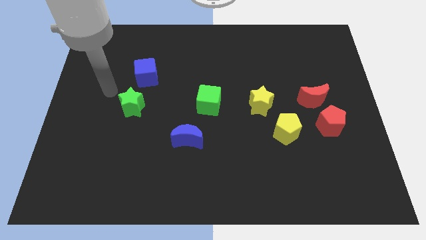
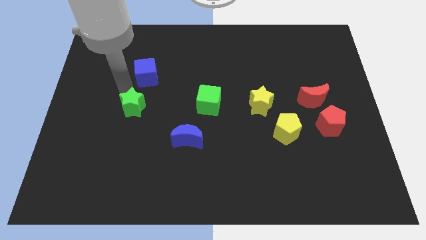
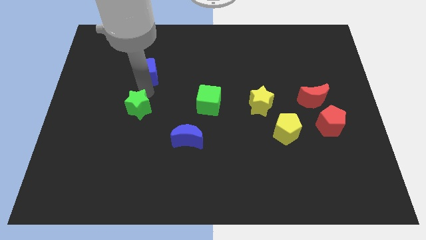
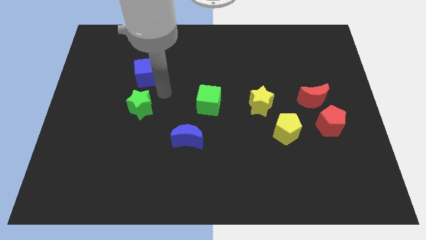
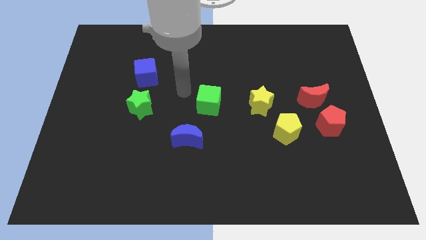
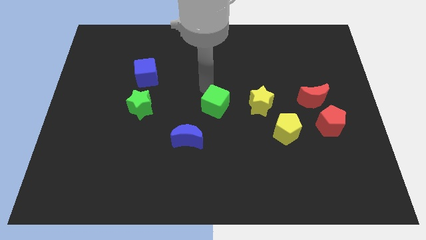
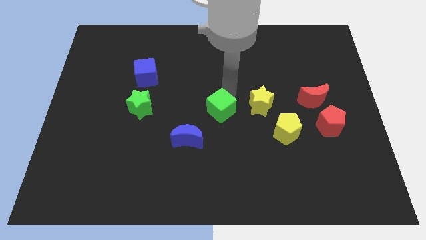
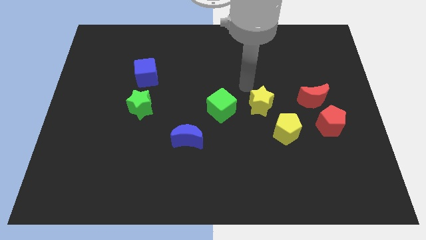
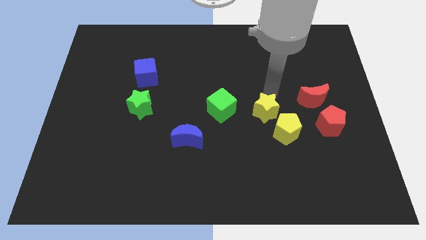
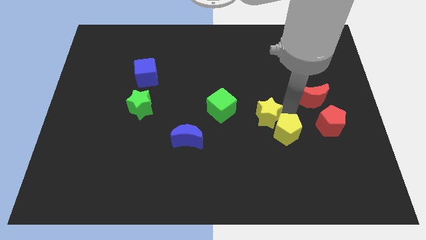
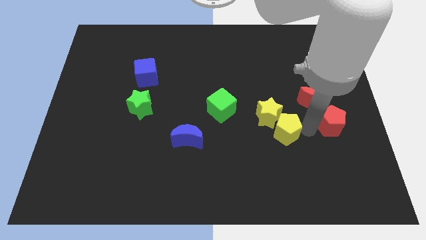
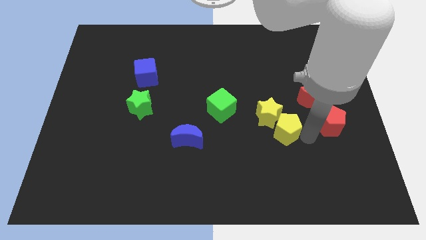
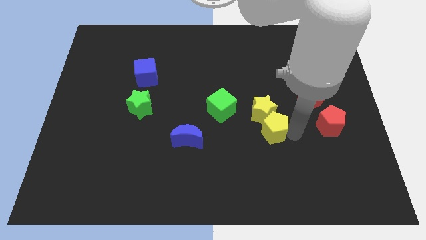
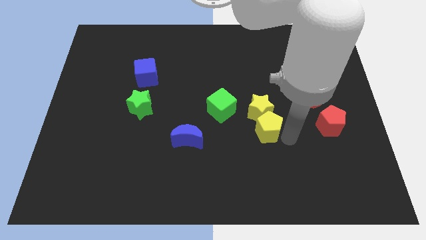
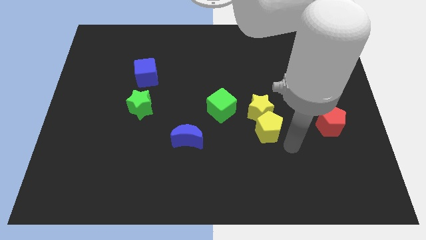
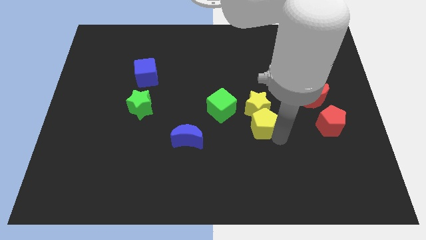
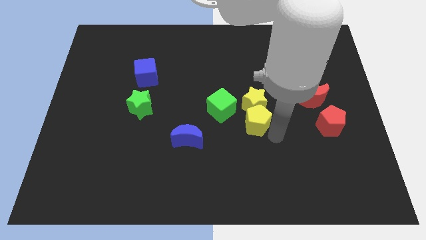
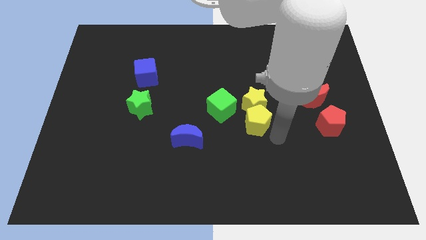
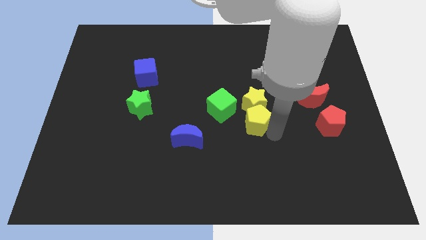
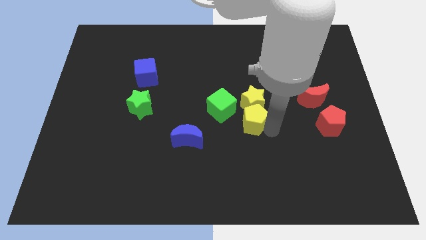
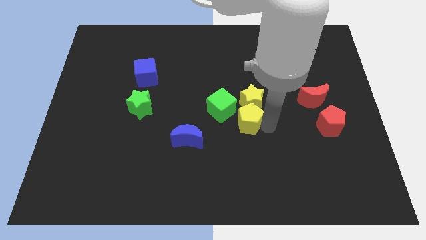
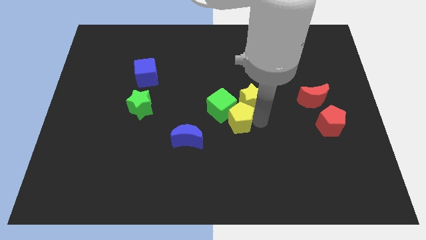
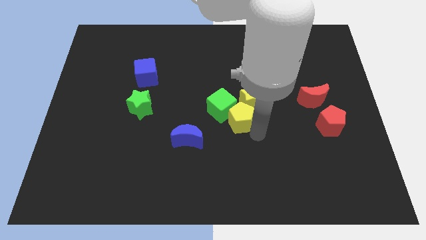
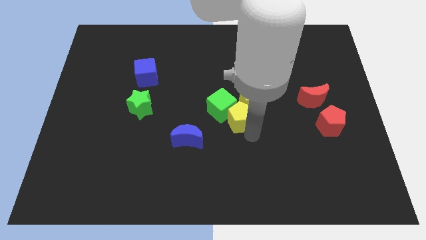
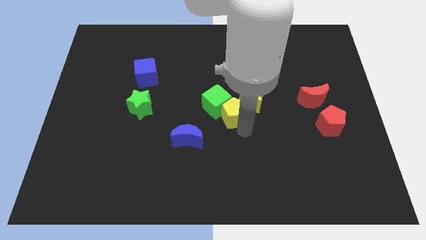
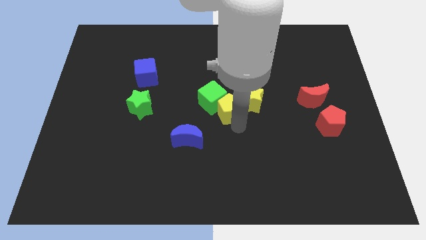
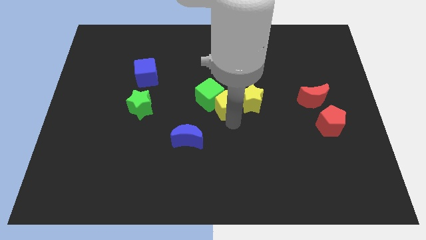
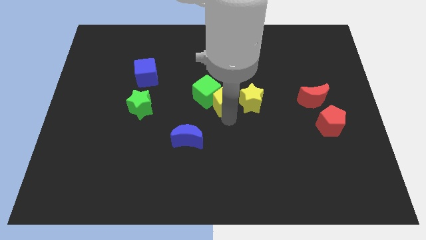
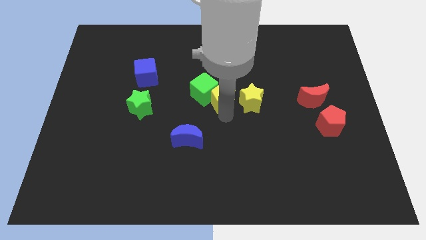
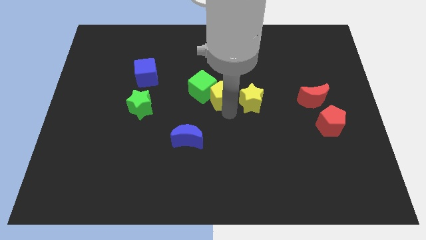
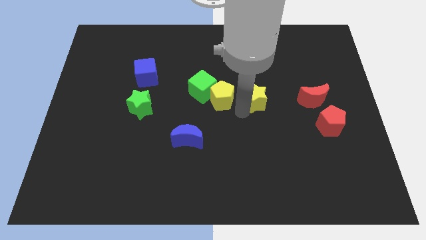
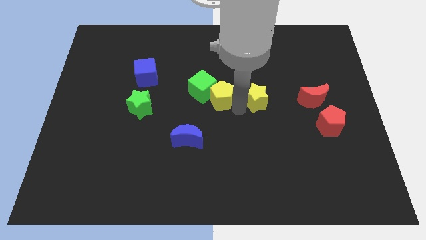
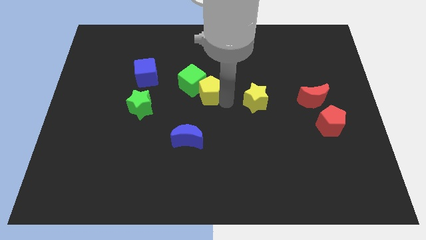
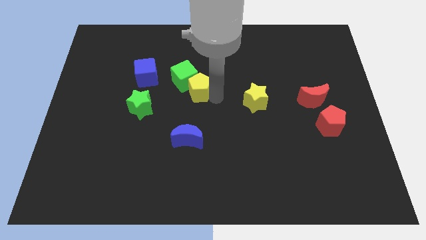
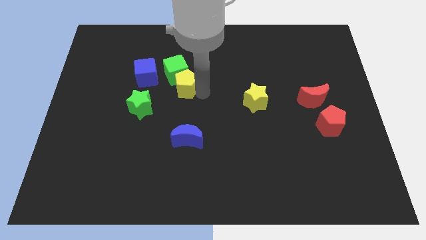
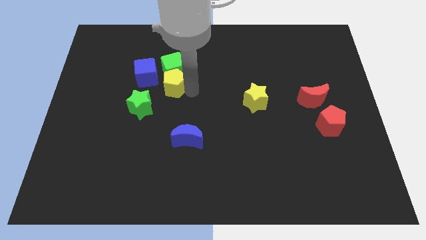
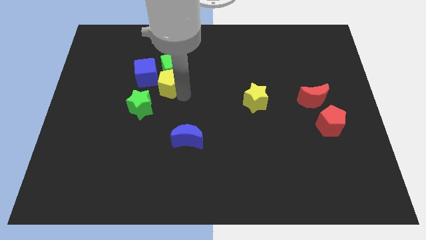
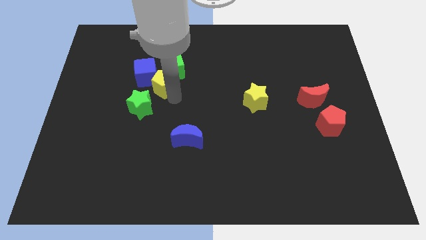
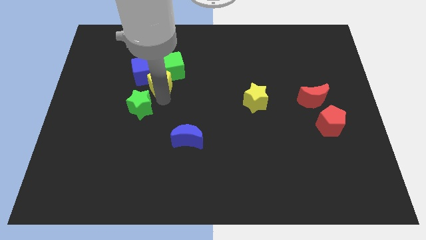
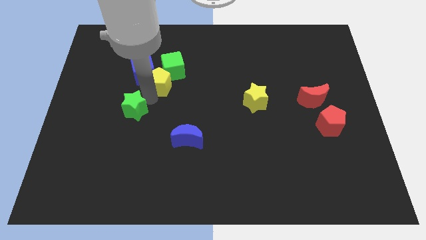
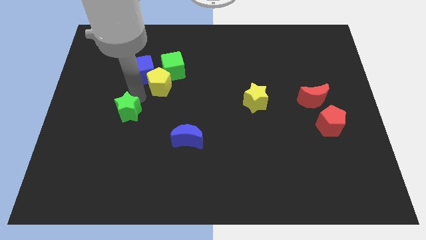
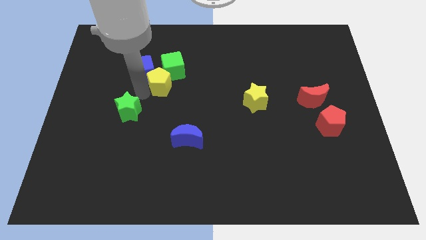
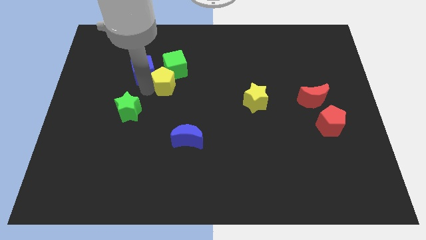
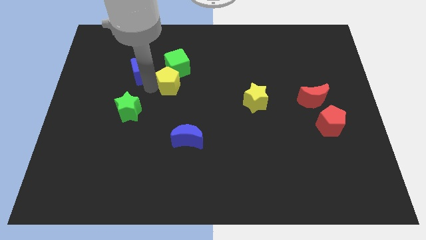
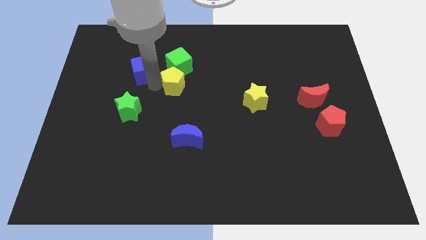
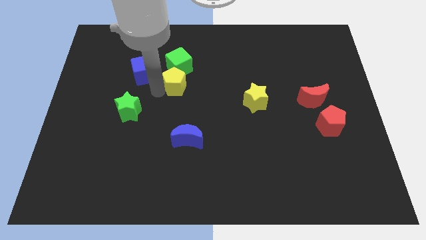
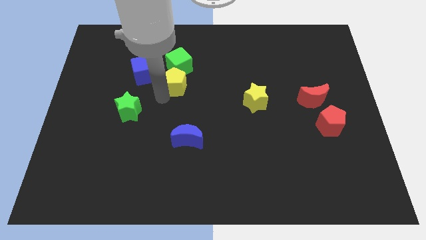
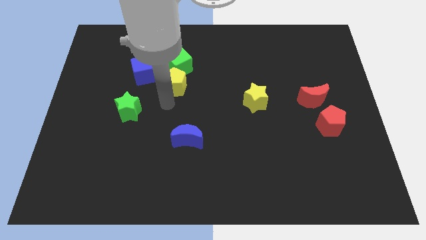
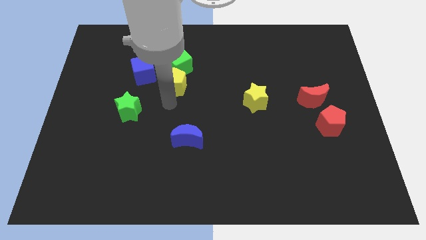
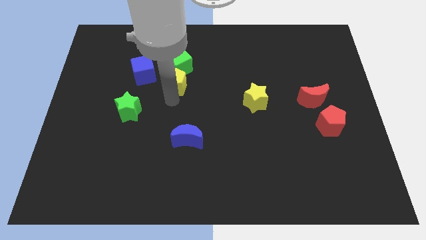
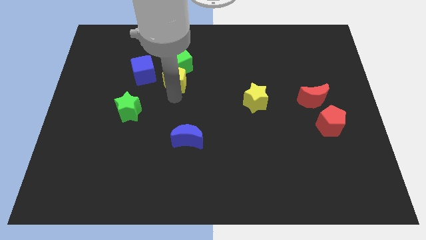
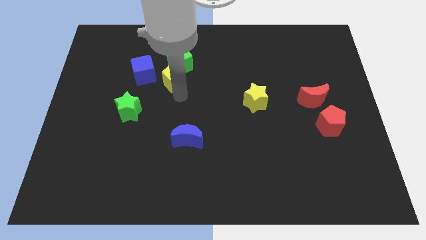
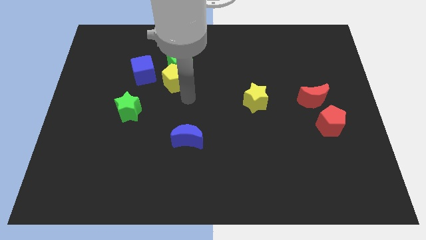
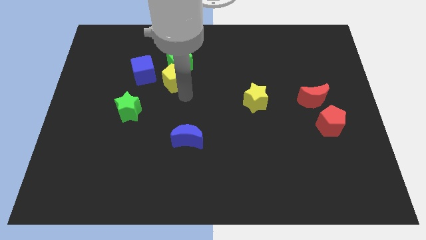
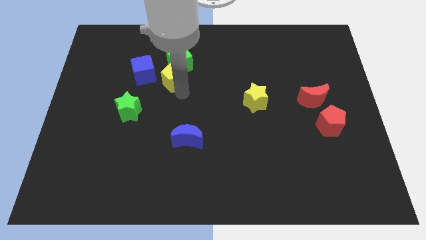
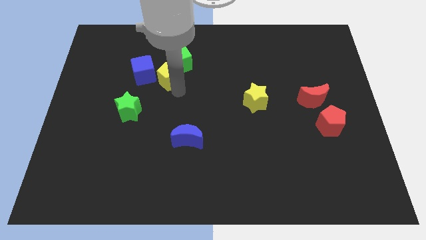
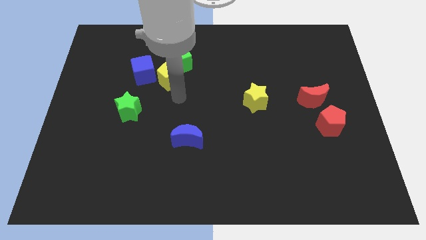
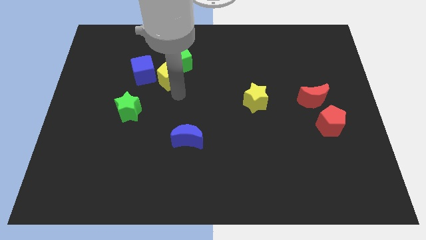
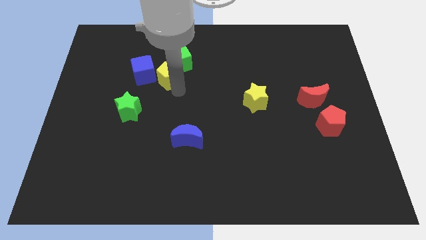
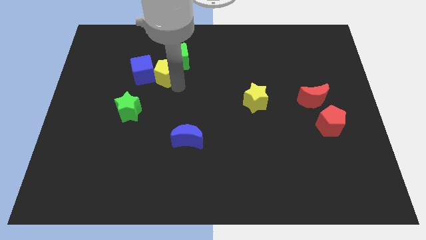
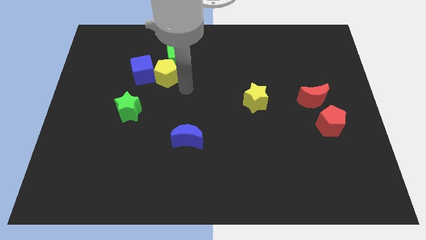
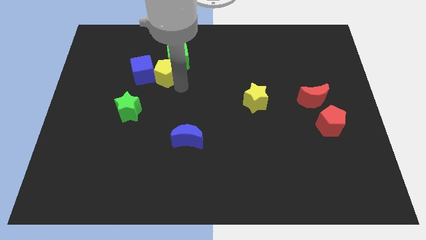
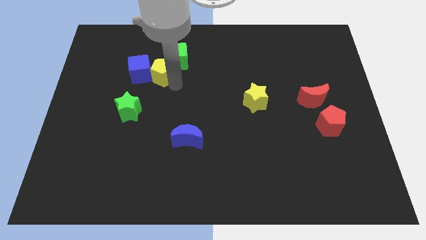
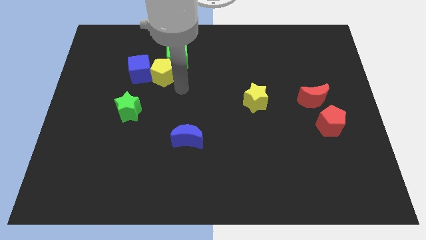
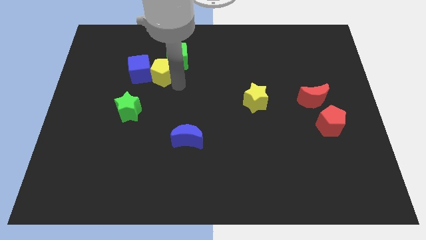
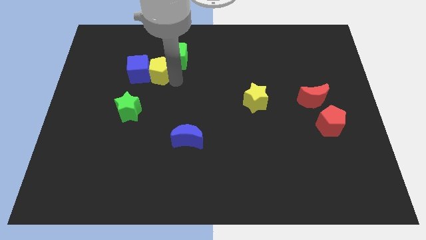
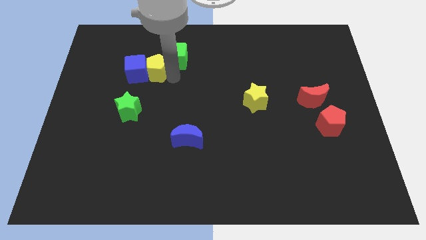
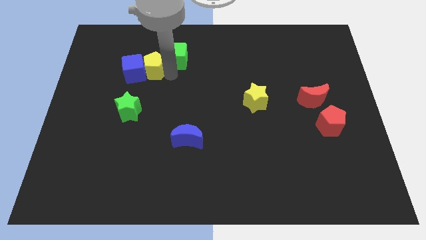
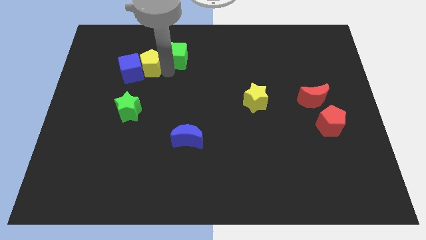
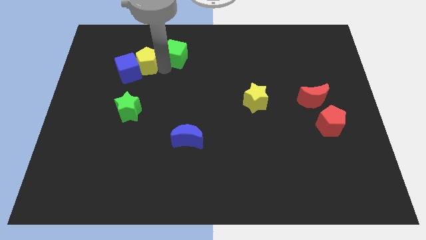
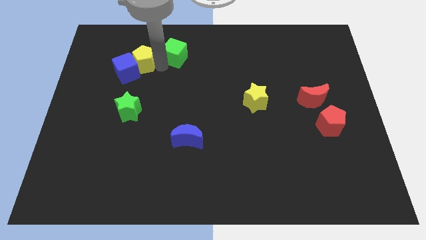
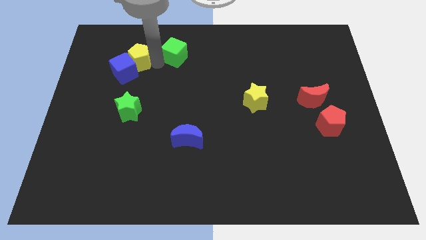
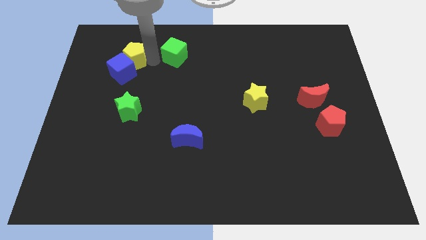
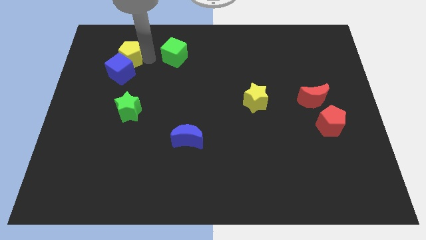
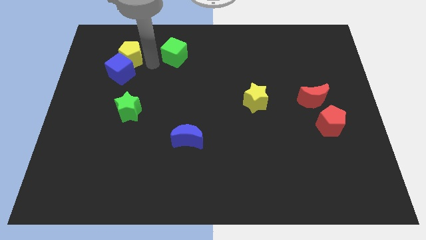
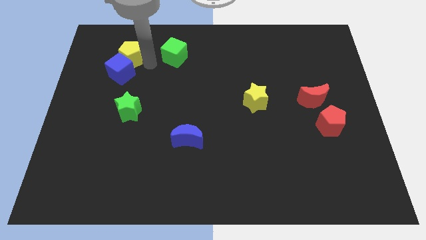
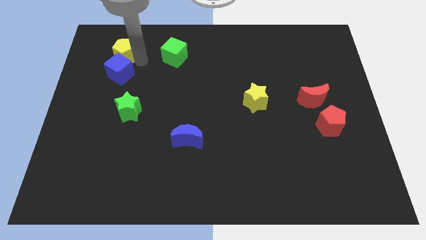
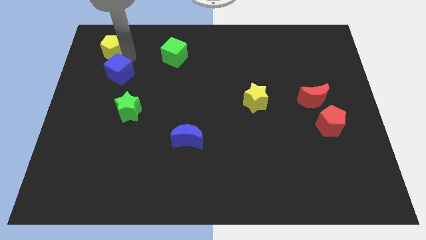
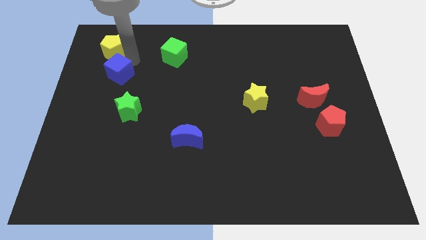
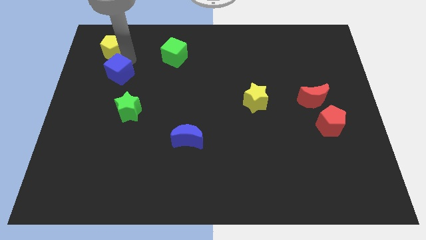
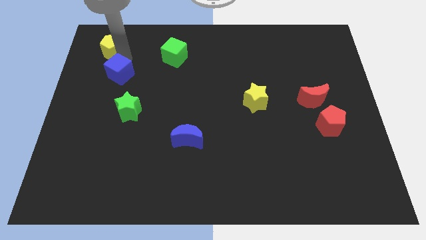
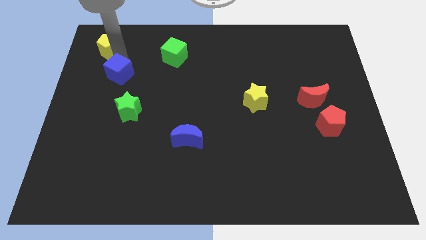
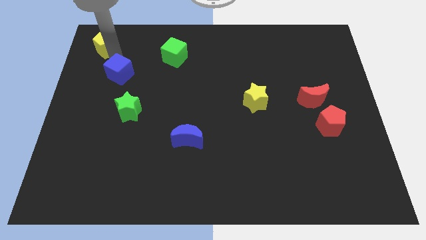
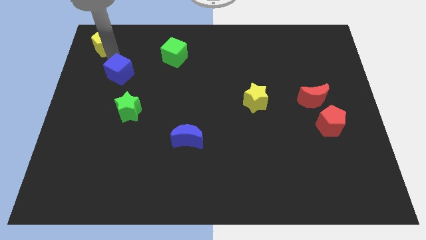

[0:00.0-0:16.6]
slide the yellow pentagon to the top left of the board
